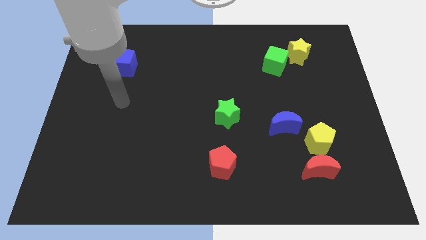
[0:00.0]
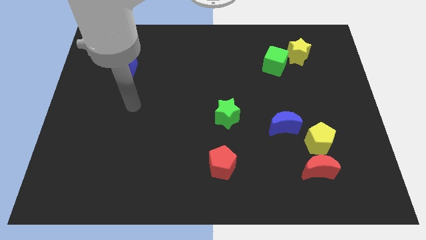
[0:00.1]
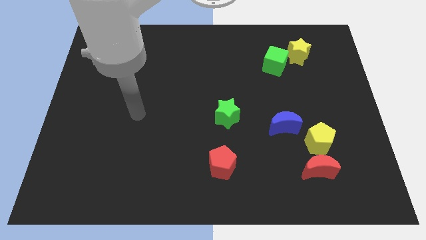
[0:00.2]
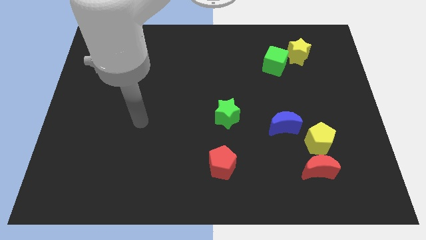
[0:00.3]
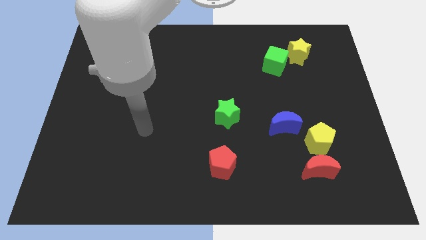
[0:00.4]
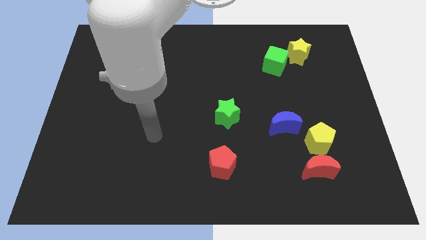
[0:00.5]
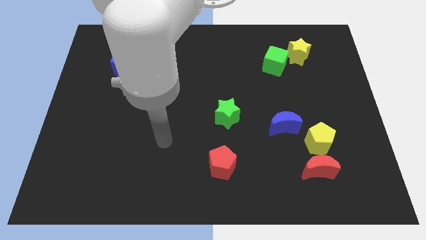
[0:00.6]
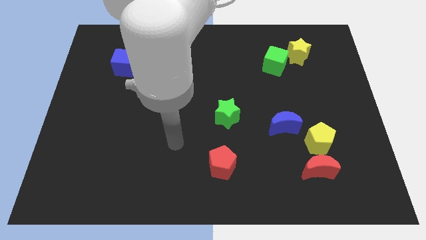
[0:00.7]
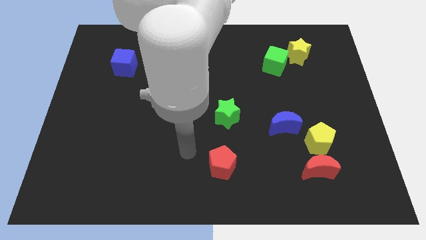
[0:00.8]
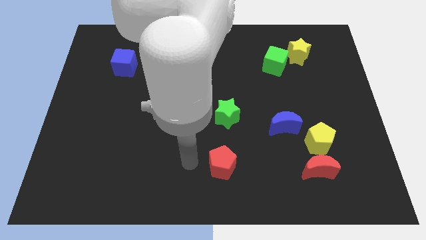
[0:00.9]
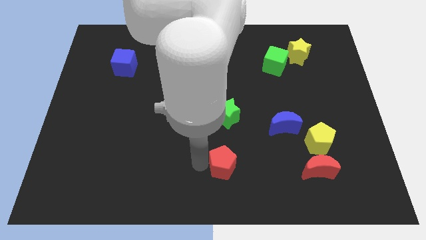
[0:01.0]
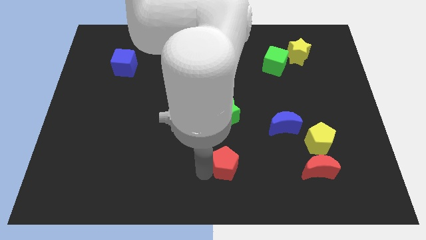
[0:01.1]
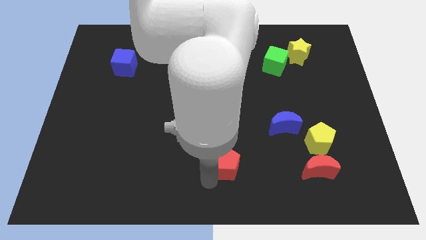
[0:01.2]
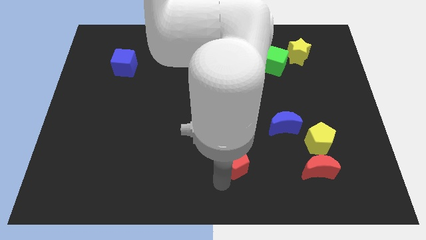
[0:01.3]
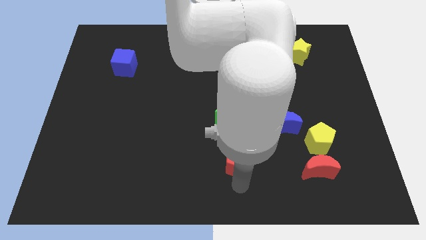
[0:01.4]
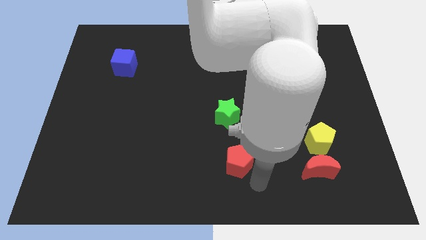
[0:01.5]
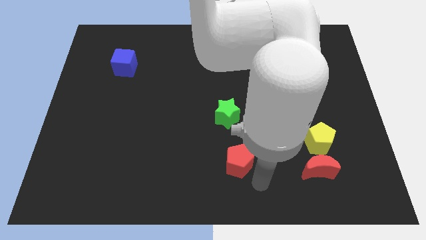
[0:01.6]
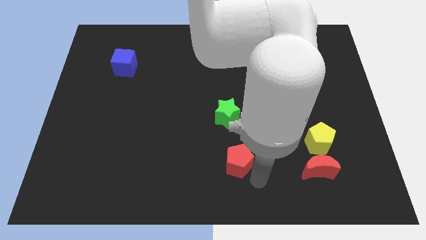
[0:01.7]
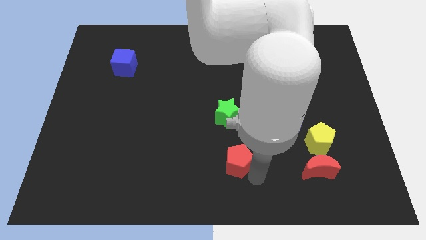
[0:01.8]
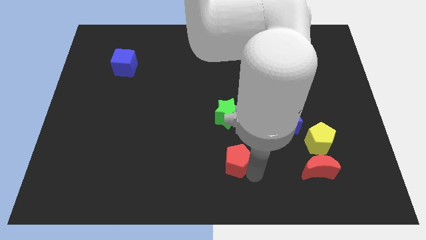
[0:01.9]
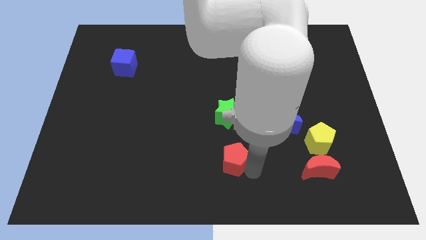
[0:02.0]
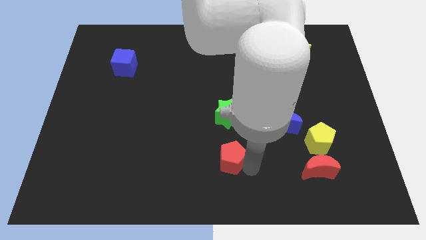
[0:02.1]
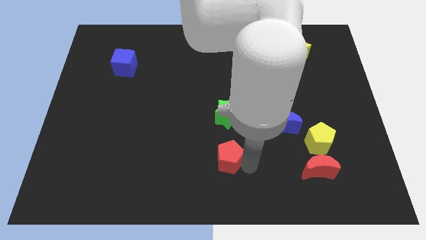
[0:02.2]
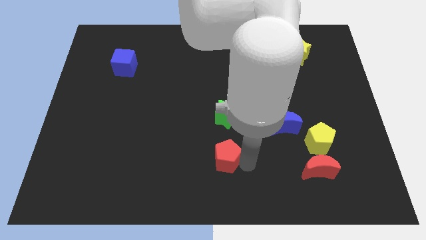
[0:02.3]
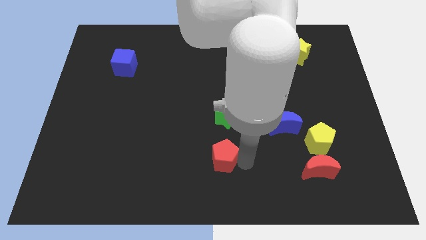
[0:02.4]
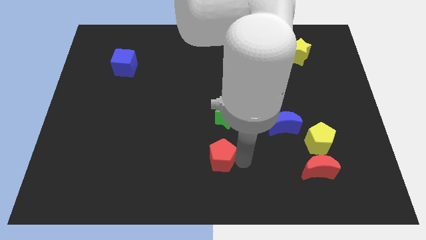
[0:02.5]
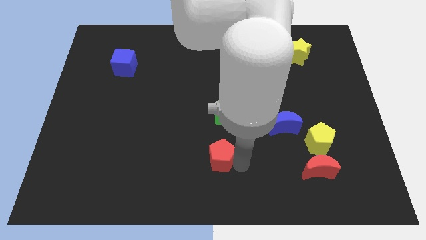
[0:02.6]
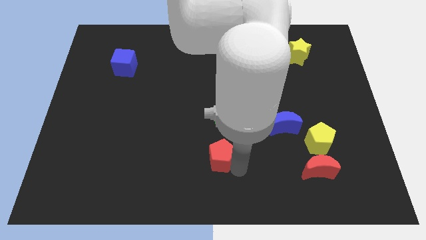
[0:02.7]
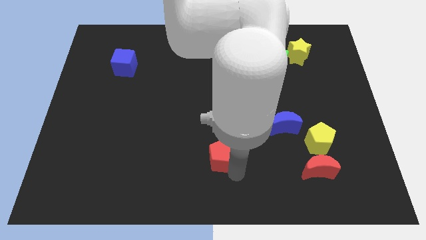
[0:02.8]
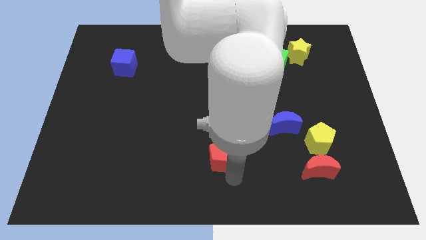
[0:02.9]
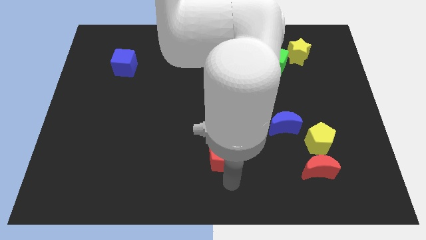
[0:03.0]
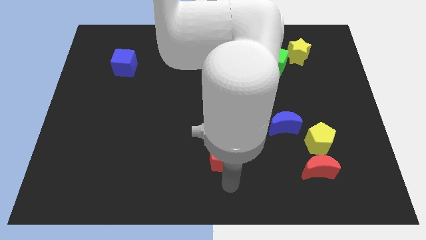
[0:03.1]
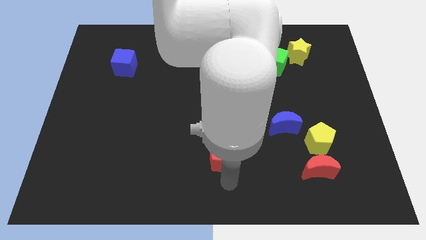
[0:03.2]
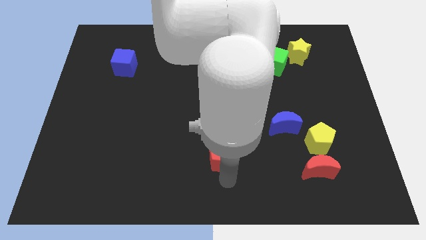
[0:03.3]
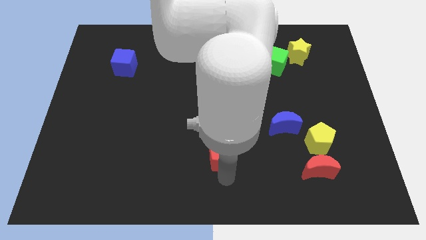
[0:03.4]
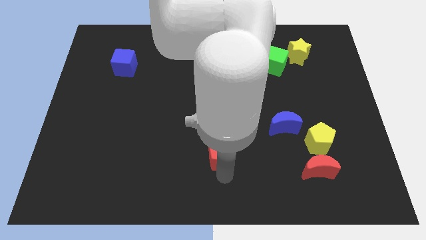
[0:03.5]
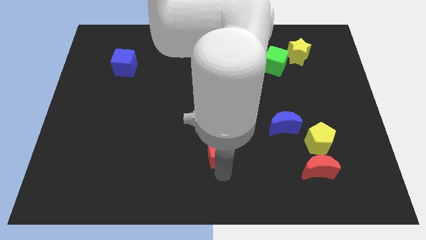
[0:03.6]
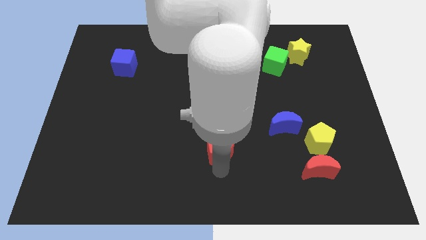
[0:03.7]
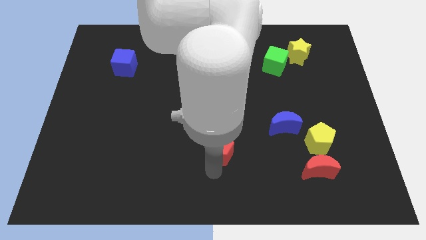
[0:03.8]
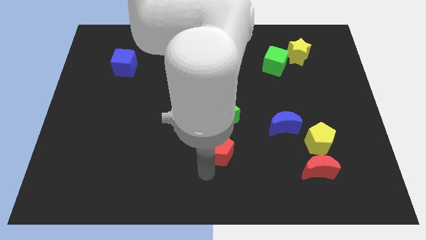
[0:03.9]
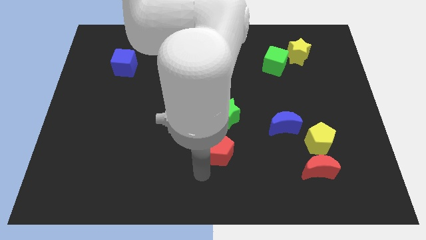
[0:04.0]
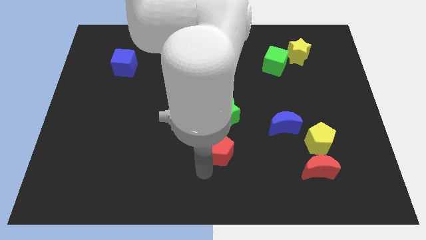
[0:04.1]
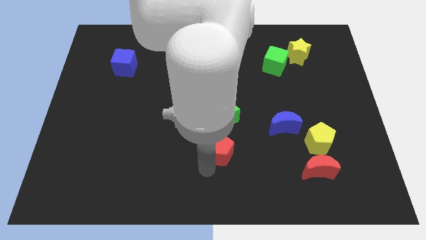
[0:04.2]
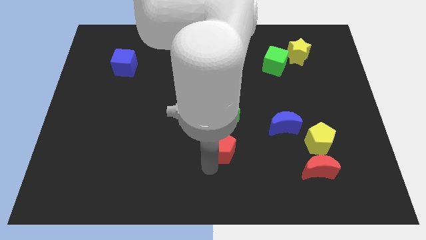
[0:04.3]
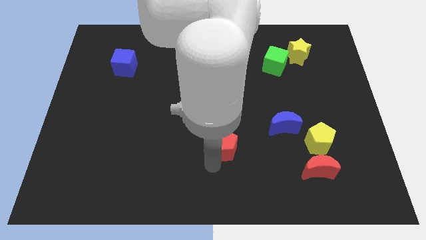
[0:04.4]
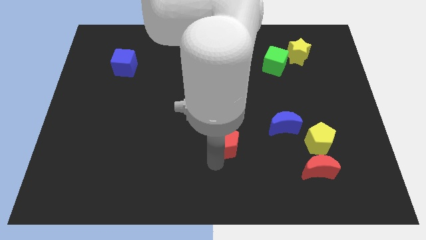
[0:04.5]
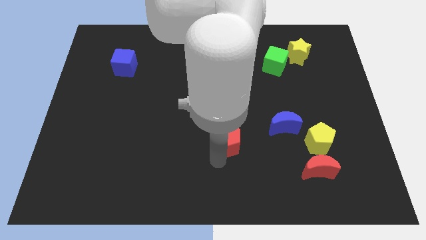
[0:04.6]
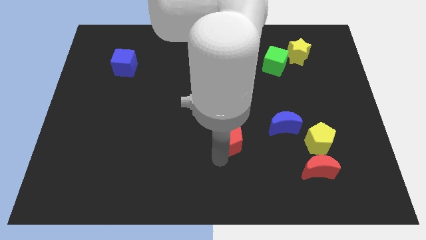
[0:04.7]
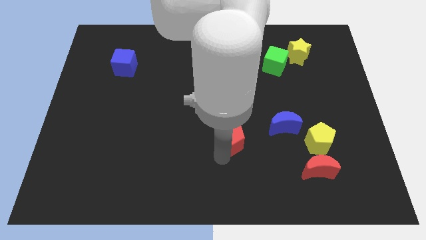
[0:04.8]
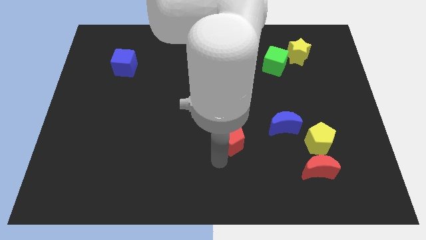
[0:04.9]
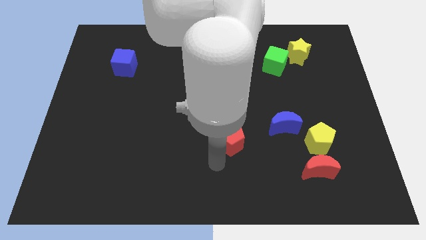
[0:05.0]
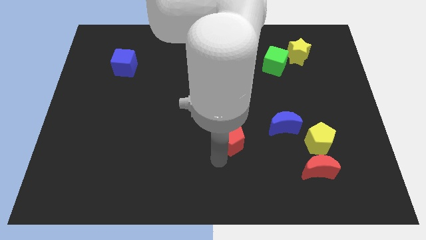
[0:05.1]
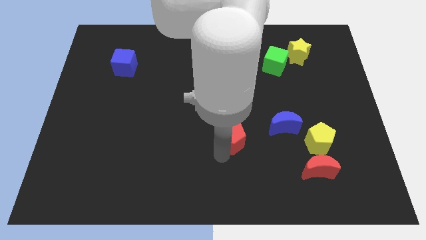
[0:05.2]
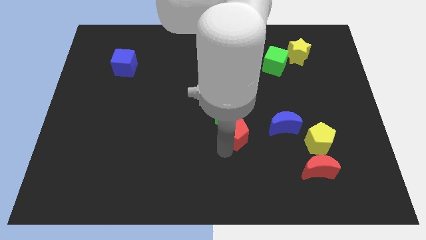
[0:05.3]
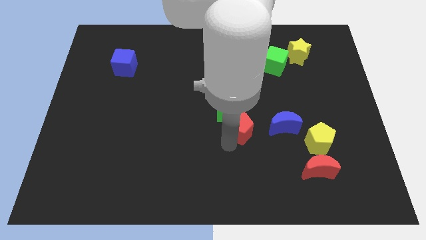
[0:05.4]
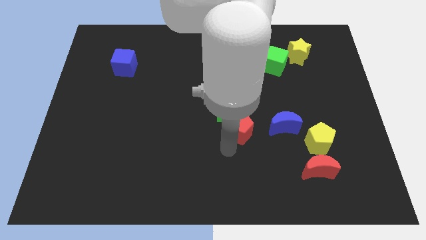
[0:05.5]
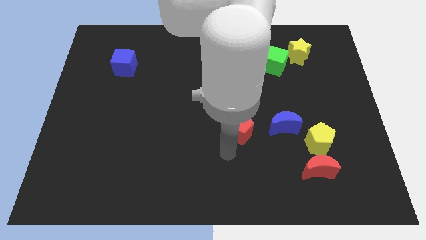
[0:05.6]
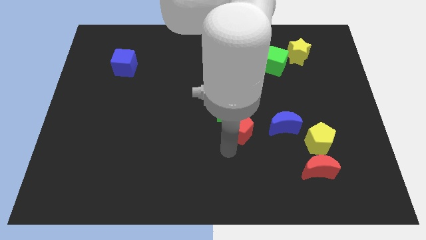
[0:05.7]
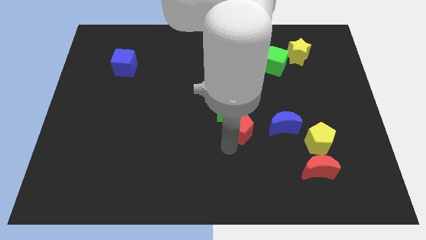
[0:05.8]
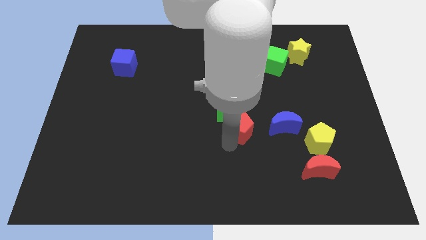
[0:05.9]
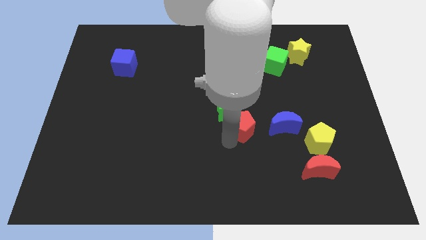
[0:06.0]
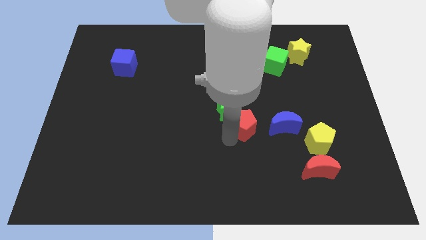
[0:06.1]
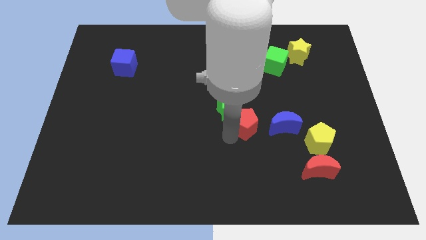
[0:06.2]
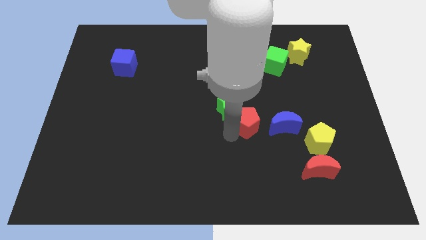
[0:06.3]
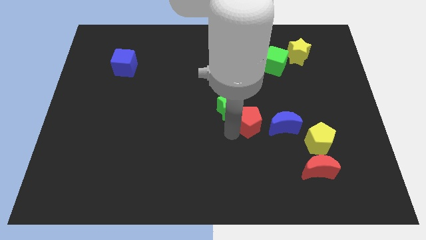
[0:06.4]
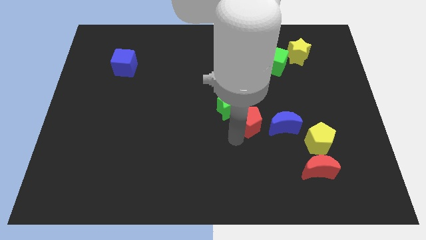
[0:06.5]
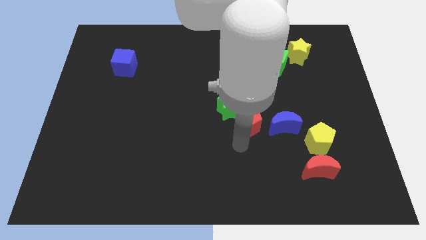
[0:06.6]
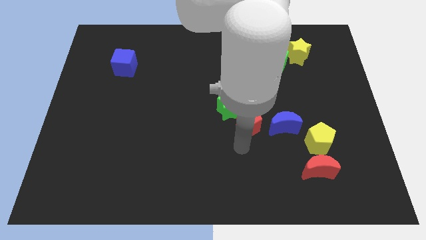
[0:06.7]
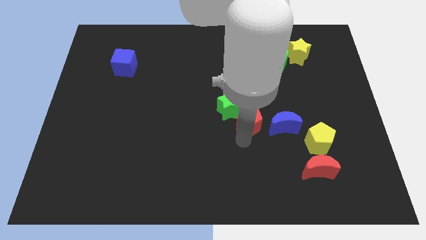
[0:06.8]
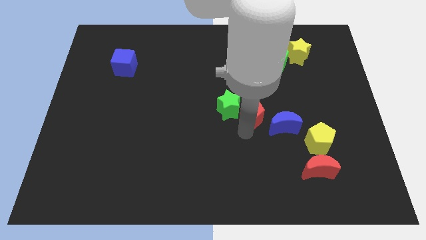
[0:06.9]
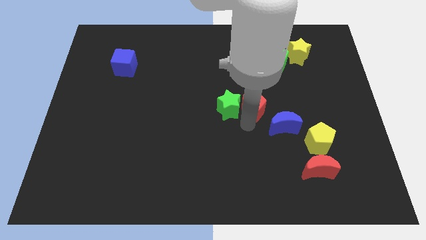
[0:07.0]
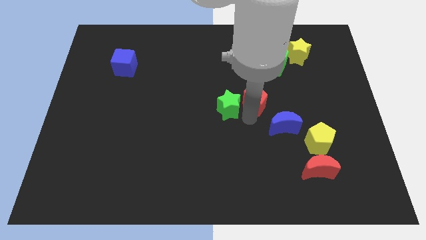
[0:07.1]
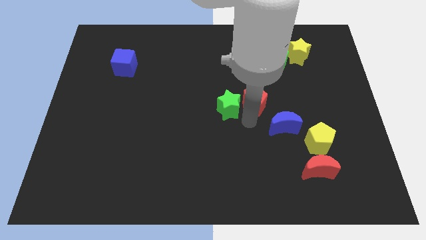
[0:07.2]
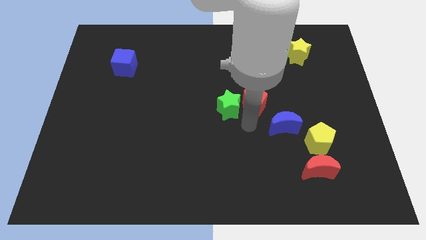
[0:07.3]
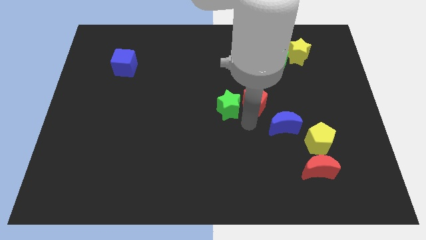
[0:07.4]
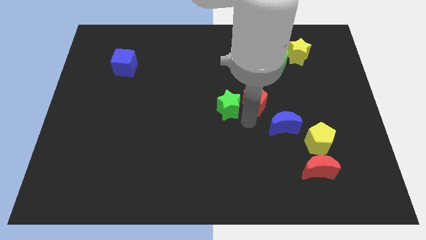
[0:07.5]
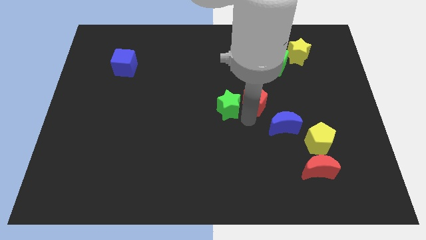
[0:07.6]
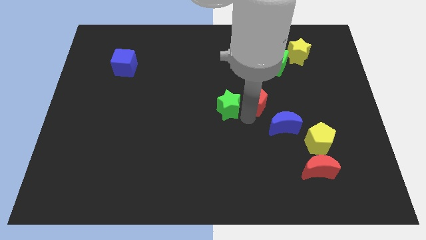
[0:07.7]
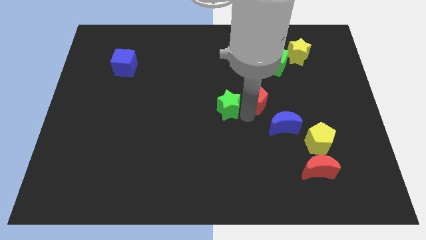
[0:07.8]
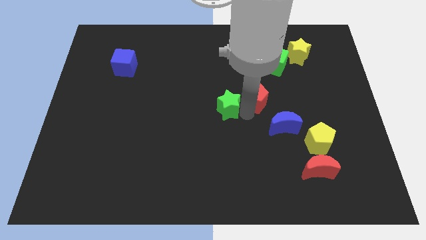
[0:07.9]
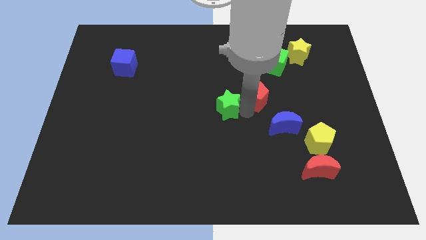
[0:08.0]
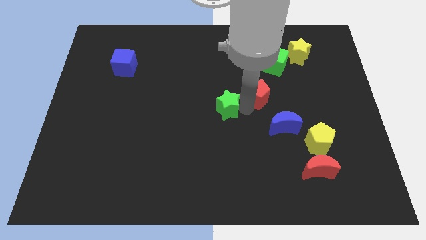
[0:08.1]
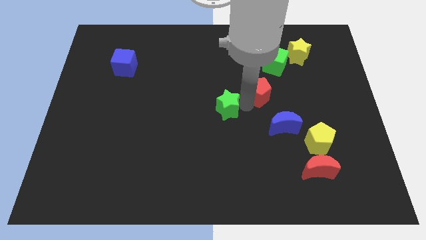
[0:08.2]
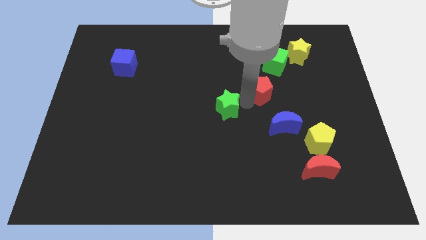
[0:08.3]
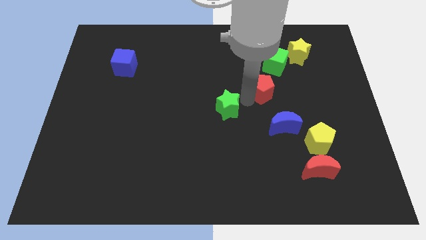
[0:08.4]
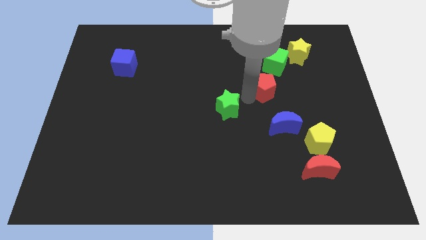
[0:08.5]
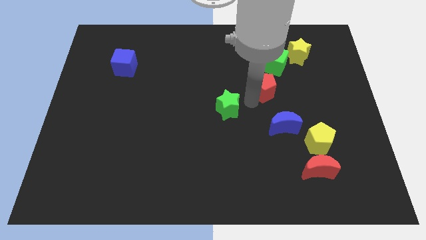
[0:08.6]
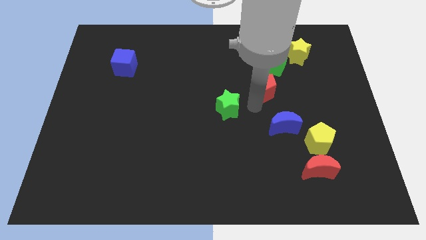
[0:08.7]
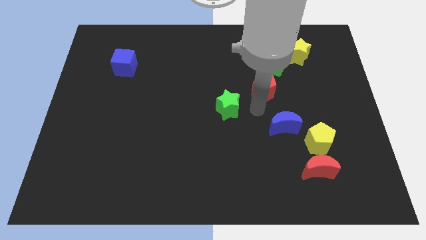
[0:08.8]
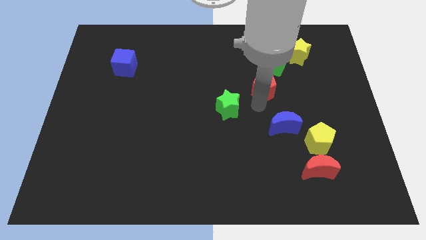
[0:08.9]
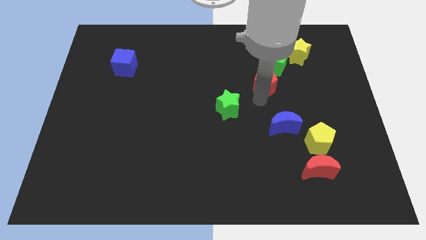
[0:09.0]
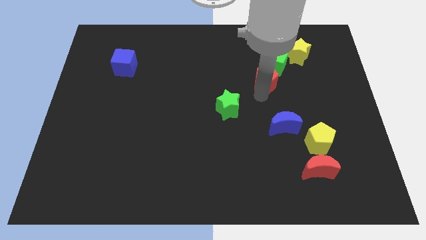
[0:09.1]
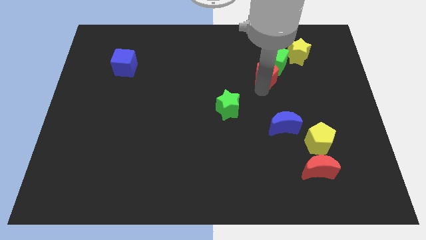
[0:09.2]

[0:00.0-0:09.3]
push the red pentagon to the green cube
